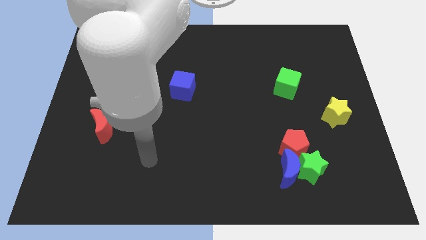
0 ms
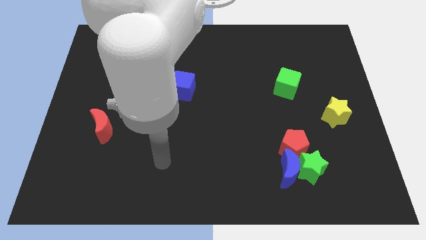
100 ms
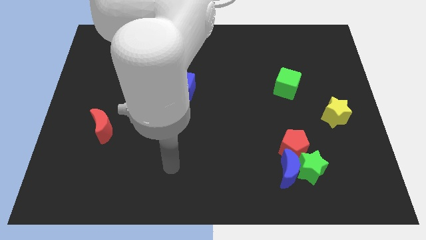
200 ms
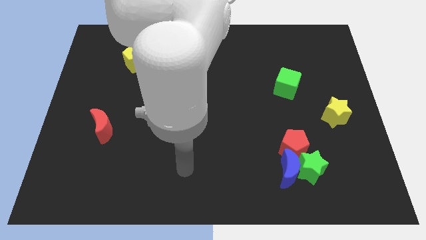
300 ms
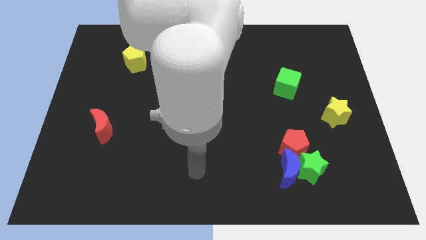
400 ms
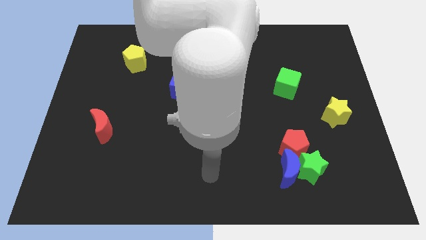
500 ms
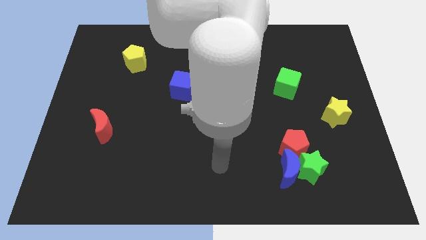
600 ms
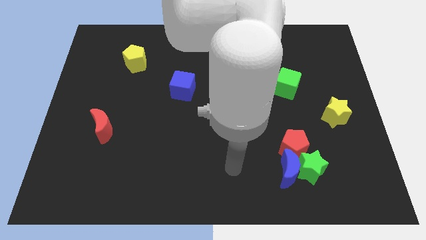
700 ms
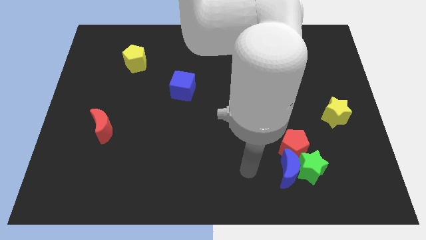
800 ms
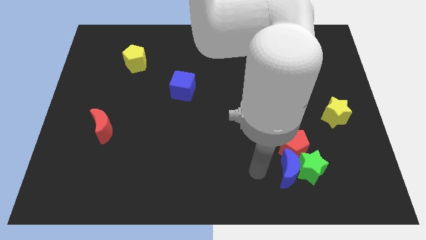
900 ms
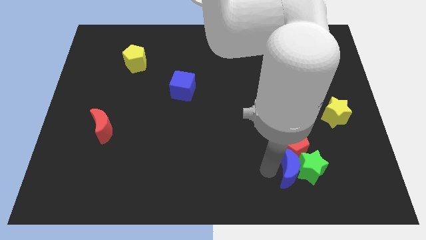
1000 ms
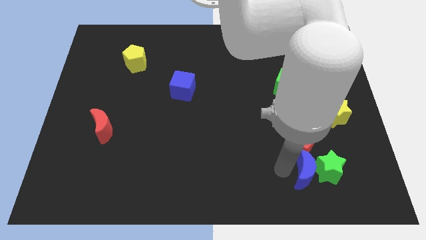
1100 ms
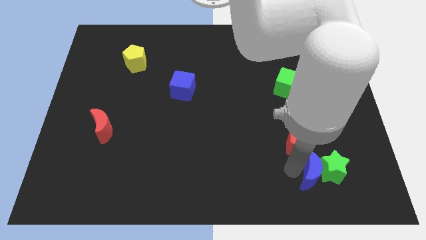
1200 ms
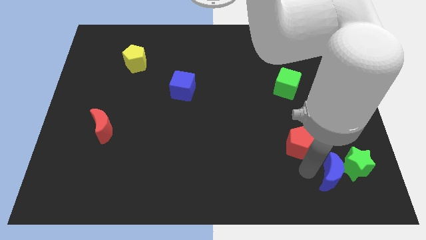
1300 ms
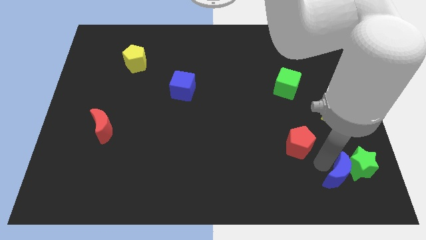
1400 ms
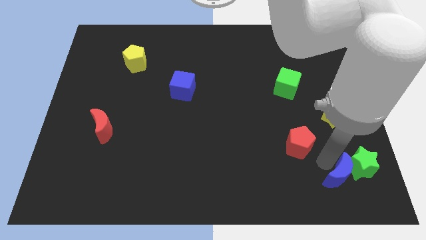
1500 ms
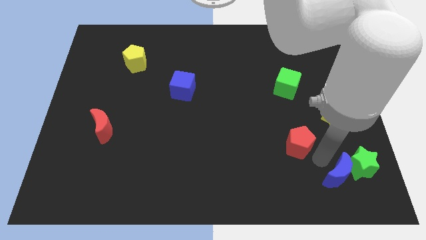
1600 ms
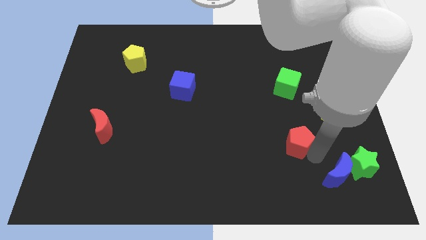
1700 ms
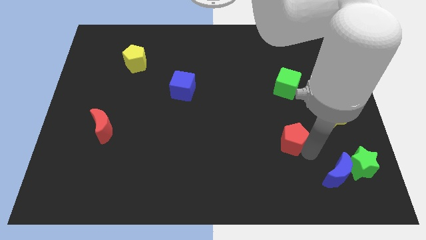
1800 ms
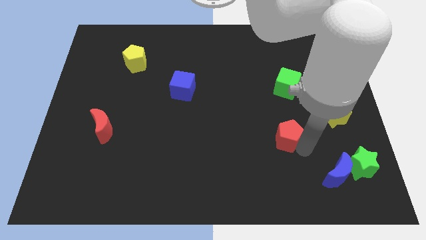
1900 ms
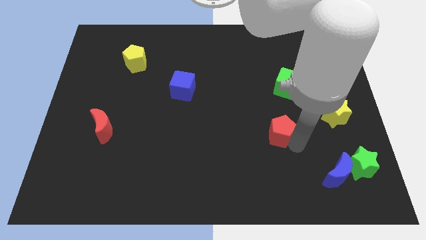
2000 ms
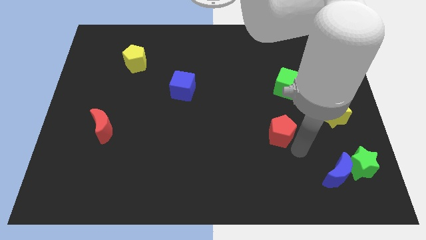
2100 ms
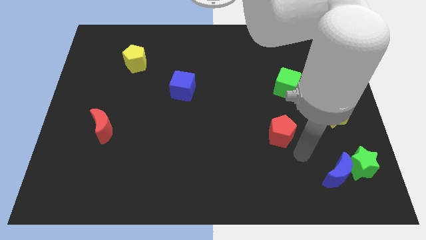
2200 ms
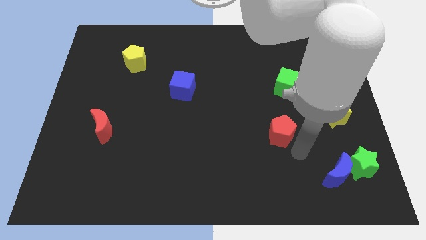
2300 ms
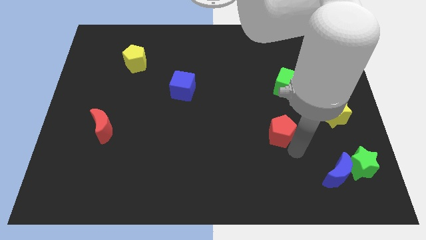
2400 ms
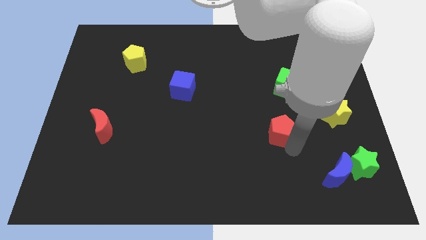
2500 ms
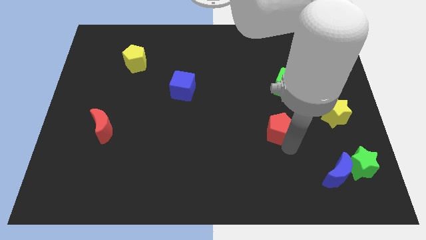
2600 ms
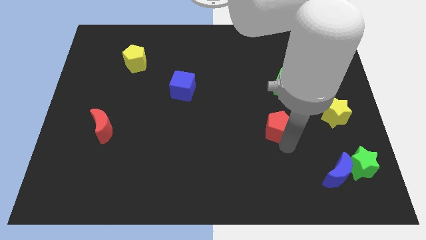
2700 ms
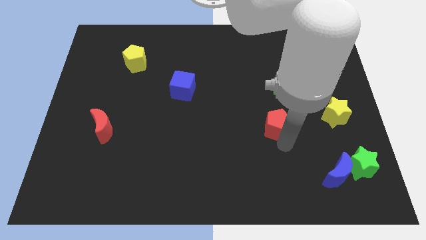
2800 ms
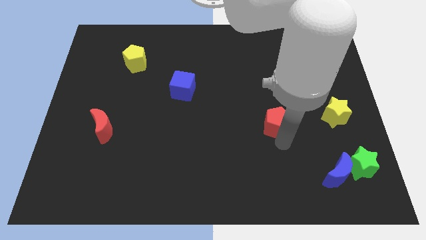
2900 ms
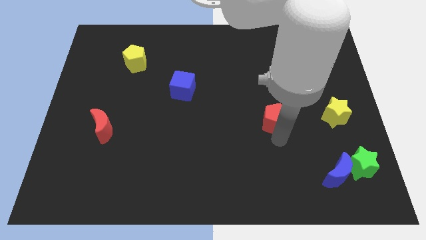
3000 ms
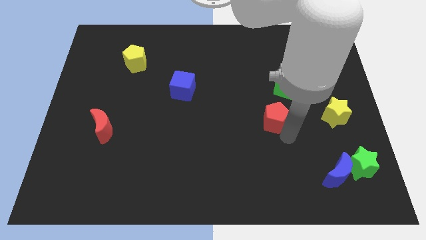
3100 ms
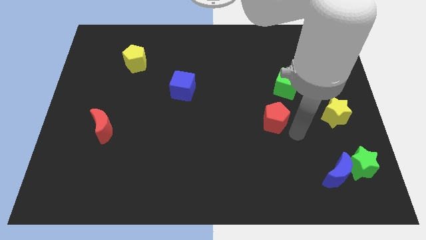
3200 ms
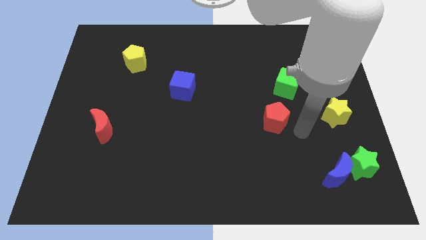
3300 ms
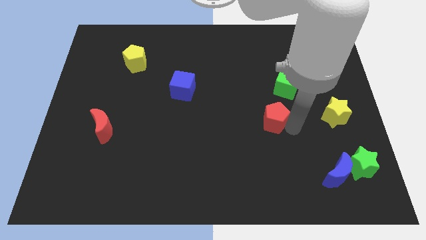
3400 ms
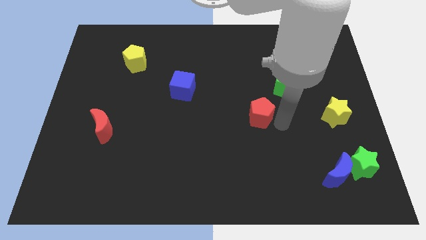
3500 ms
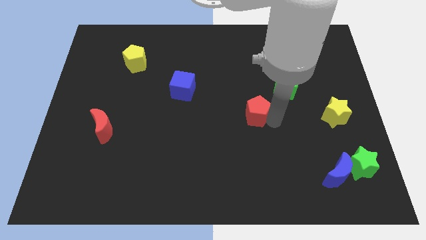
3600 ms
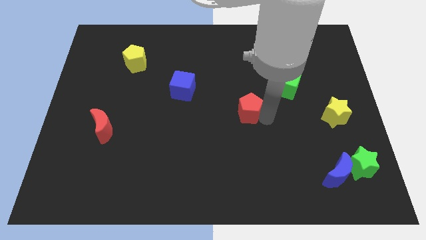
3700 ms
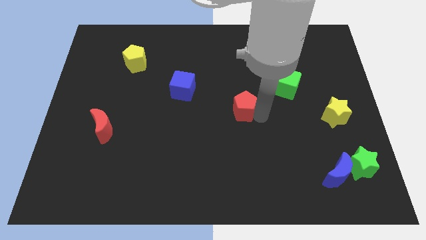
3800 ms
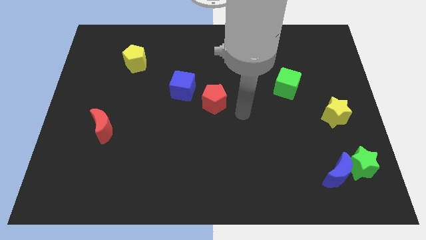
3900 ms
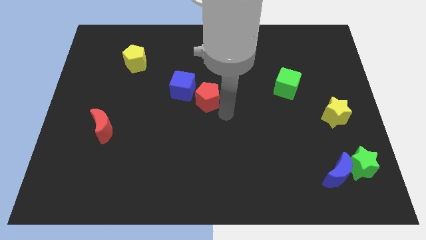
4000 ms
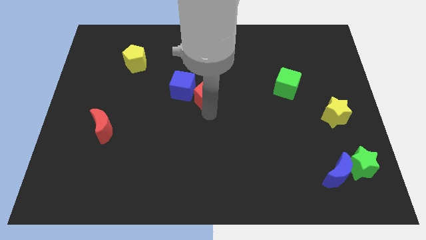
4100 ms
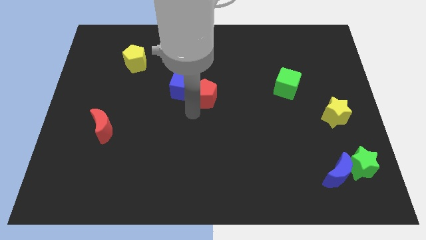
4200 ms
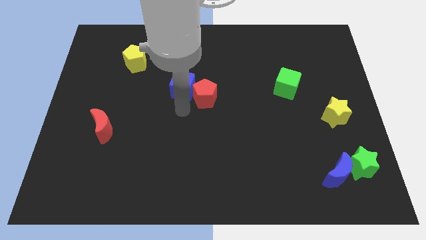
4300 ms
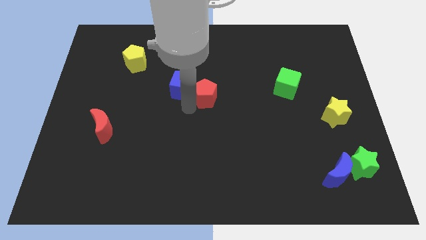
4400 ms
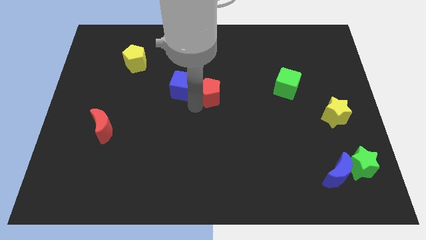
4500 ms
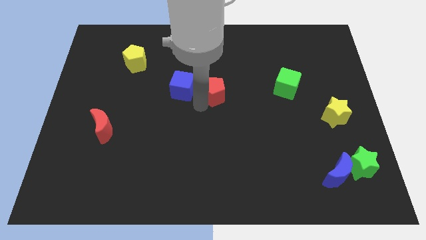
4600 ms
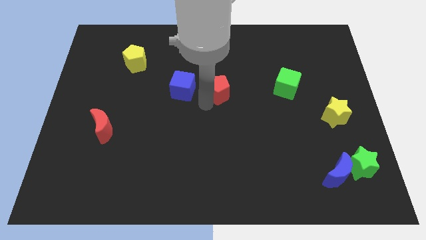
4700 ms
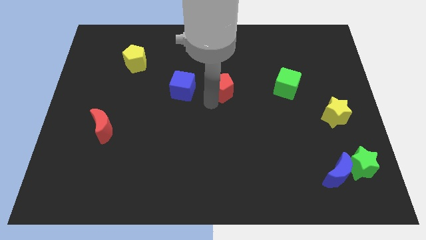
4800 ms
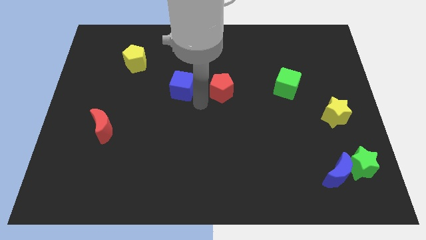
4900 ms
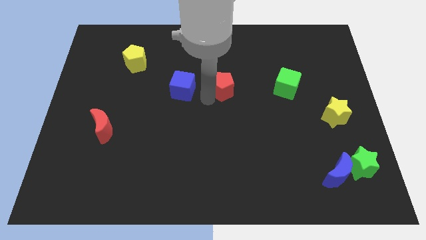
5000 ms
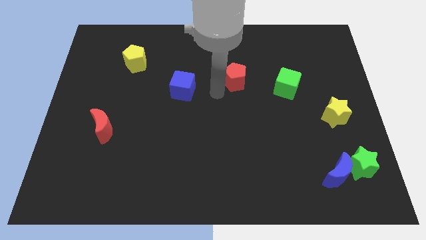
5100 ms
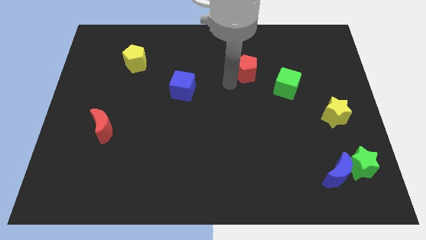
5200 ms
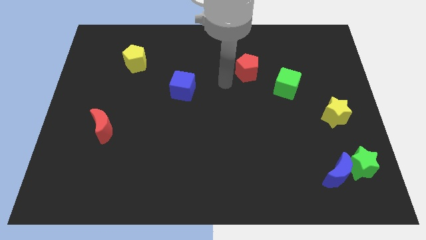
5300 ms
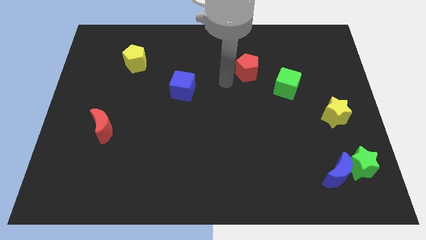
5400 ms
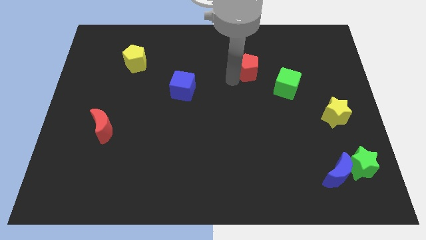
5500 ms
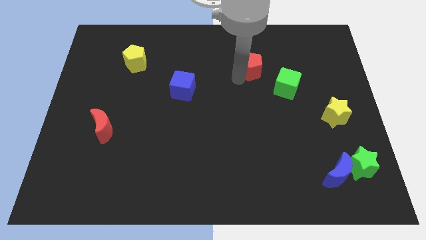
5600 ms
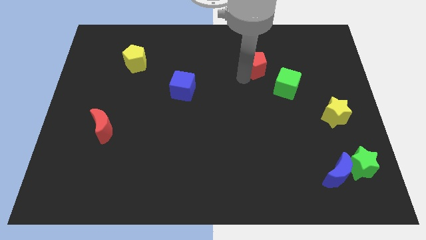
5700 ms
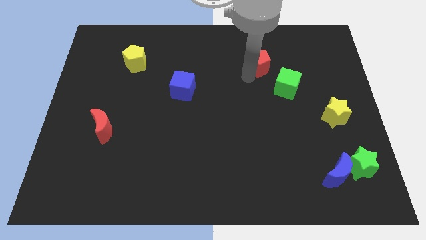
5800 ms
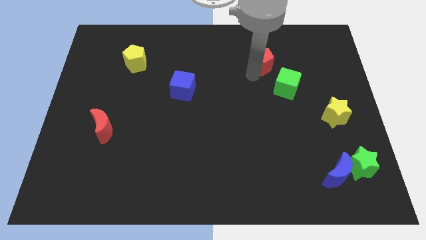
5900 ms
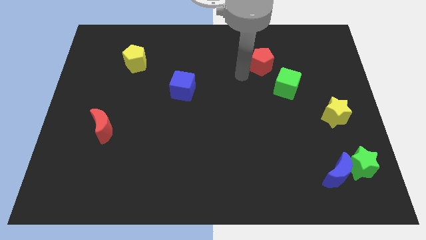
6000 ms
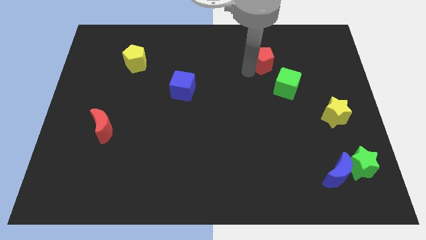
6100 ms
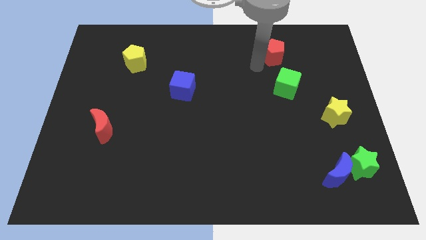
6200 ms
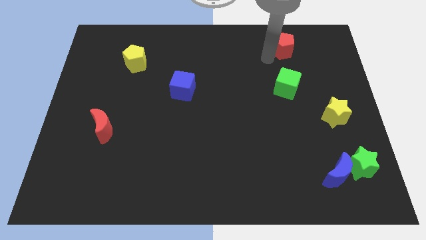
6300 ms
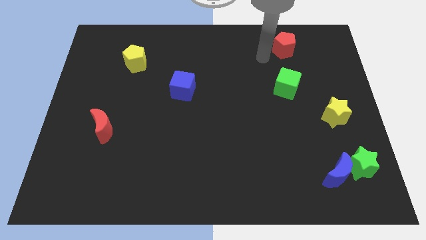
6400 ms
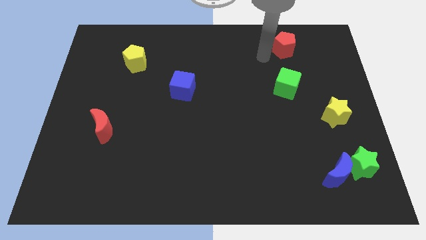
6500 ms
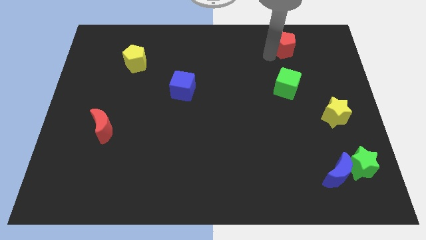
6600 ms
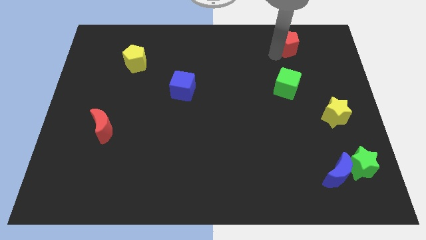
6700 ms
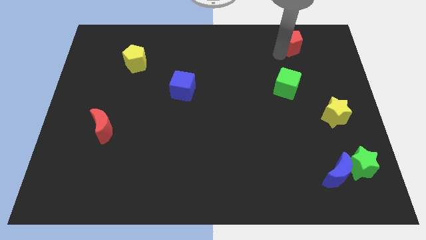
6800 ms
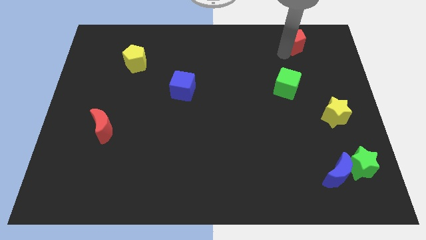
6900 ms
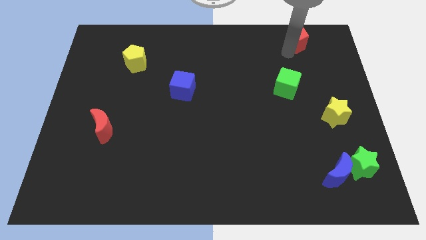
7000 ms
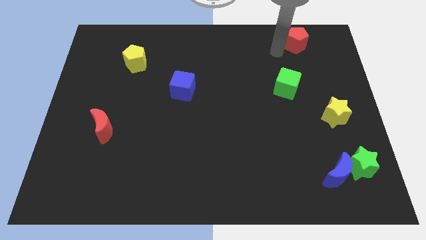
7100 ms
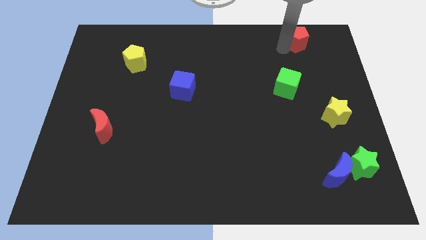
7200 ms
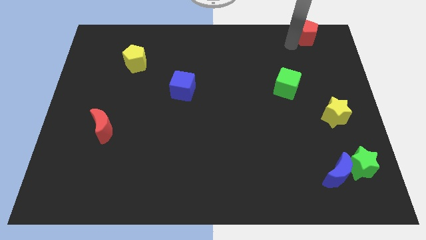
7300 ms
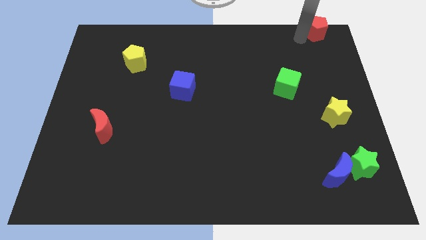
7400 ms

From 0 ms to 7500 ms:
move the red pentagon to the top right of the board
